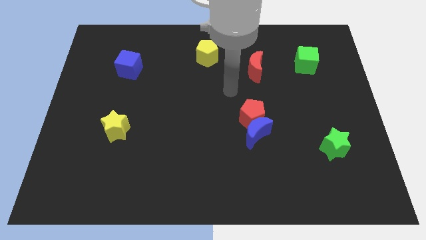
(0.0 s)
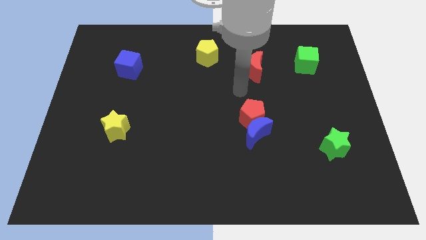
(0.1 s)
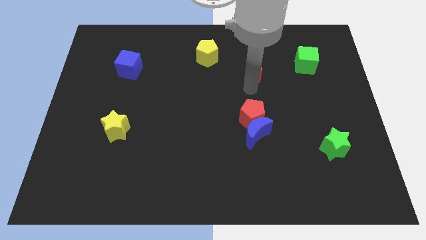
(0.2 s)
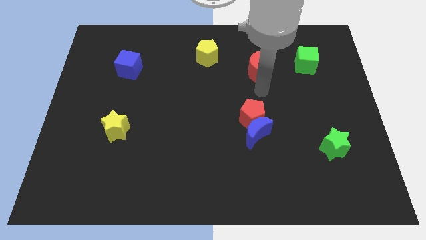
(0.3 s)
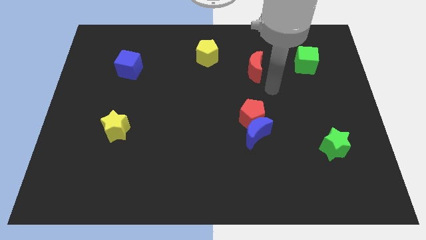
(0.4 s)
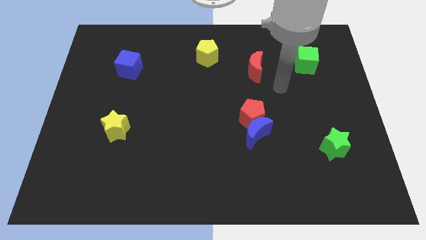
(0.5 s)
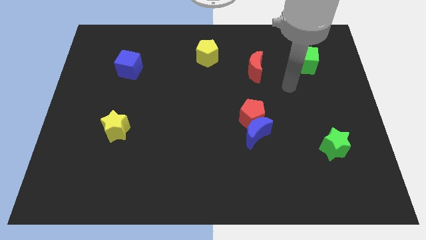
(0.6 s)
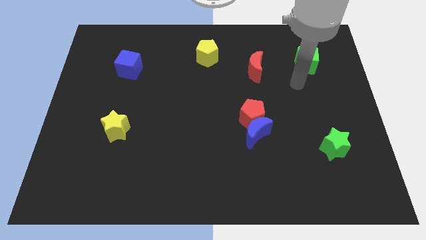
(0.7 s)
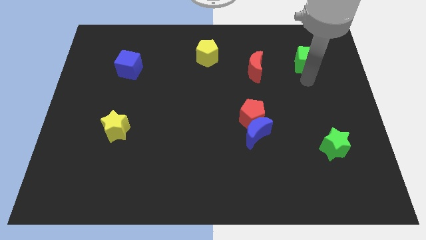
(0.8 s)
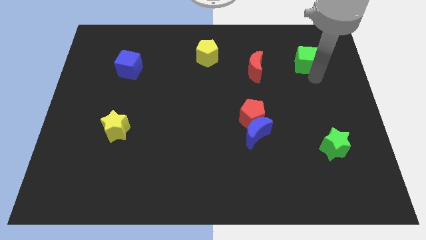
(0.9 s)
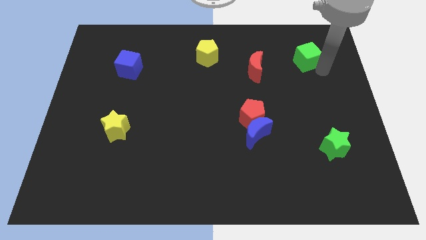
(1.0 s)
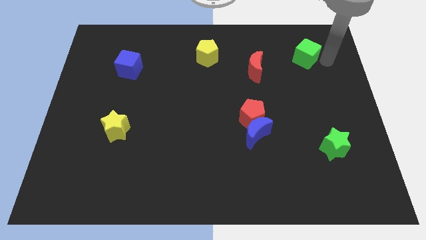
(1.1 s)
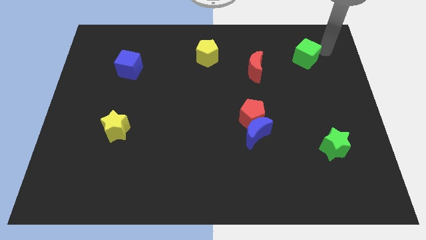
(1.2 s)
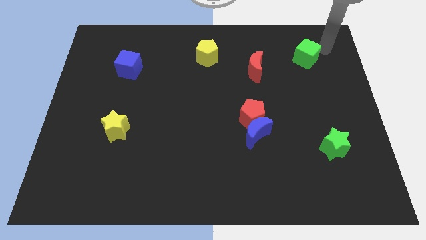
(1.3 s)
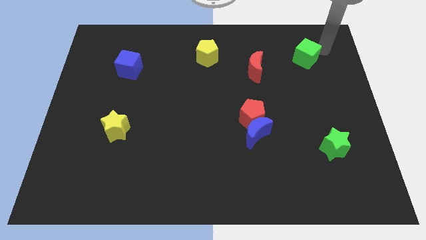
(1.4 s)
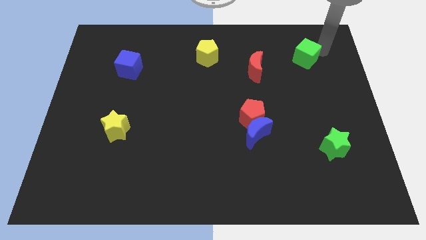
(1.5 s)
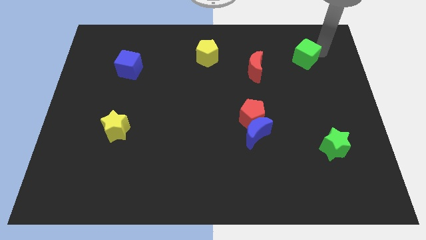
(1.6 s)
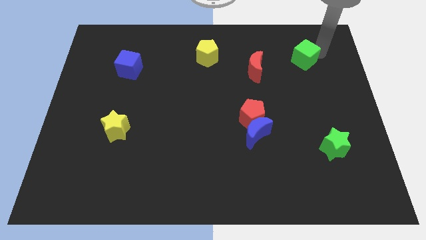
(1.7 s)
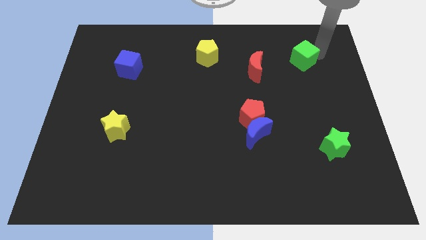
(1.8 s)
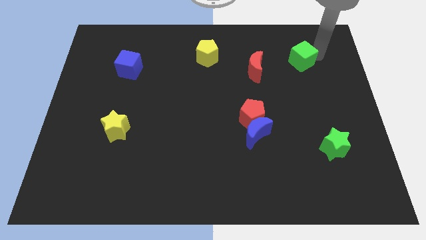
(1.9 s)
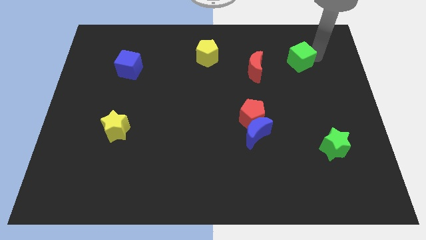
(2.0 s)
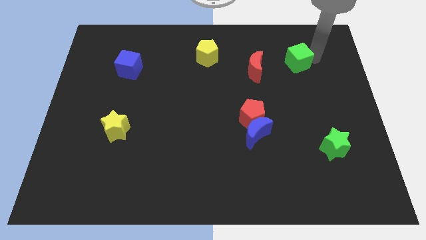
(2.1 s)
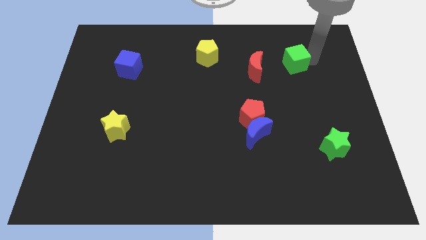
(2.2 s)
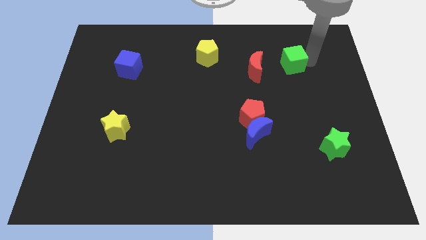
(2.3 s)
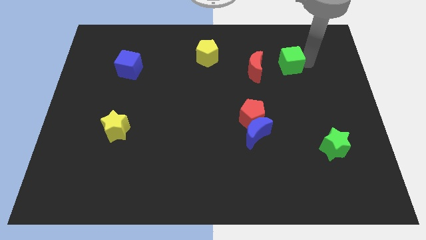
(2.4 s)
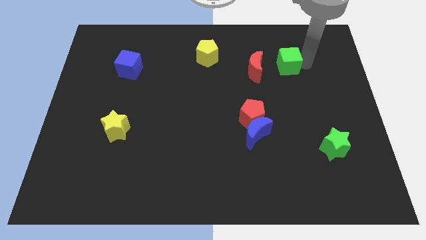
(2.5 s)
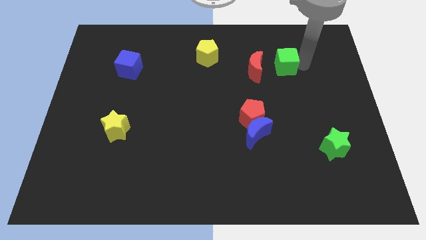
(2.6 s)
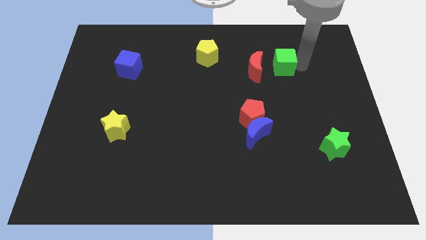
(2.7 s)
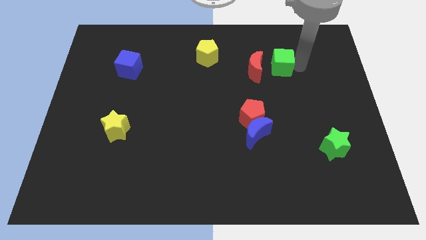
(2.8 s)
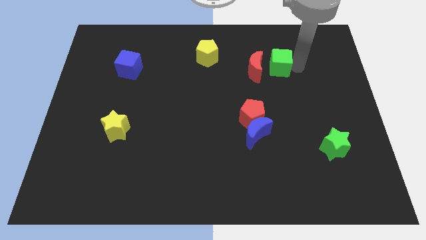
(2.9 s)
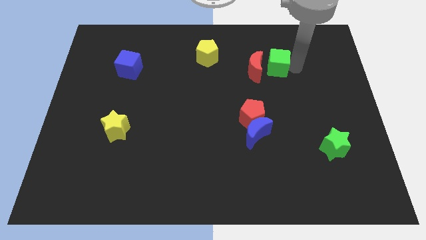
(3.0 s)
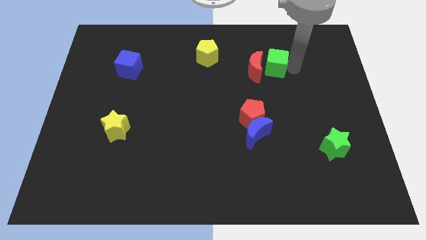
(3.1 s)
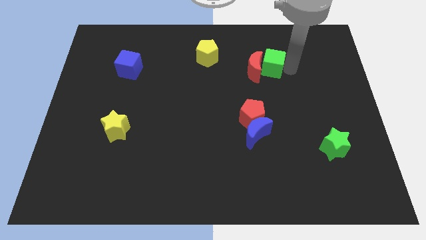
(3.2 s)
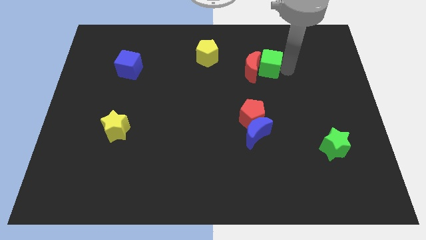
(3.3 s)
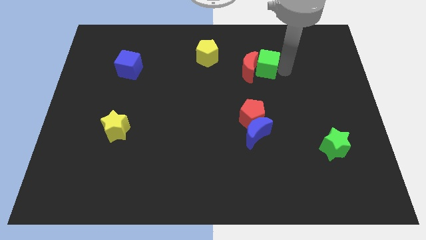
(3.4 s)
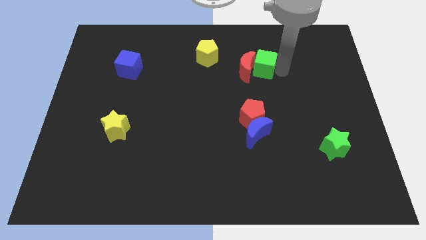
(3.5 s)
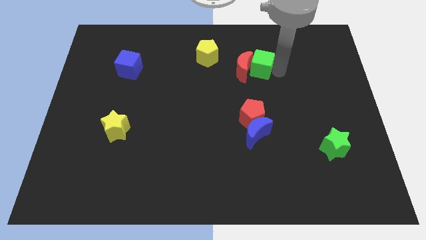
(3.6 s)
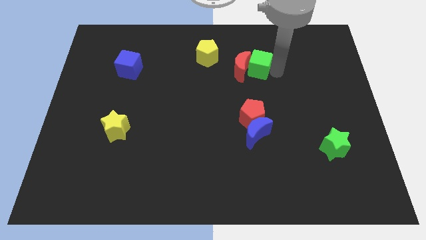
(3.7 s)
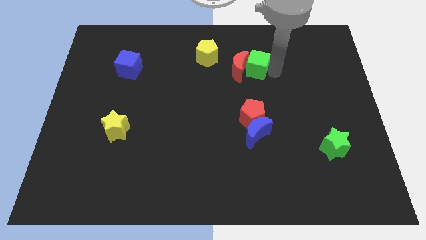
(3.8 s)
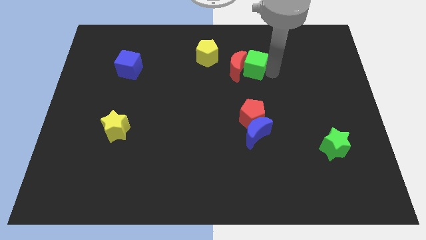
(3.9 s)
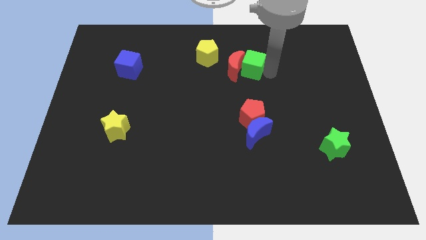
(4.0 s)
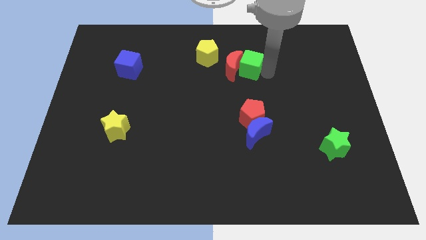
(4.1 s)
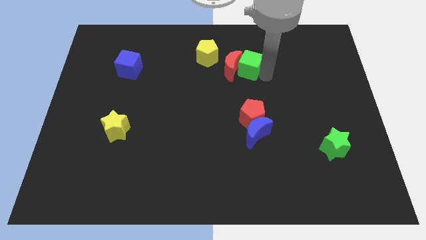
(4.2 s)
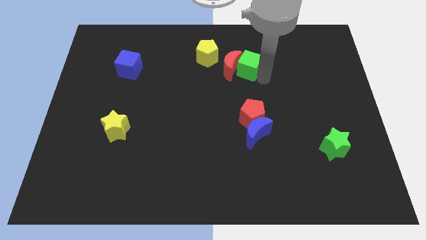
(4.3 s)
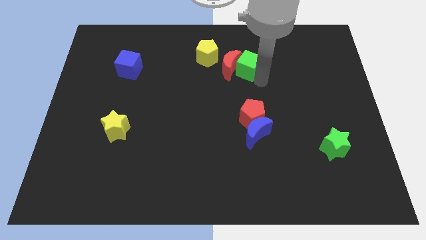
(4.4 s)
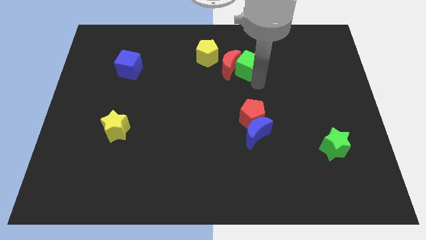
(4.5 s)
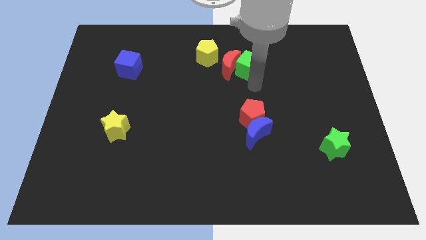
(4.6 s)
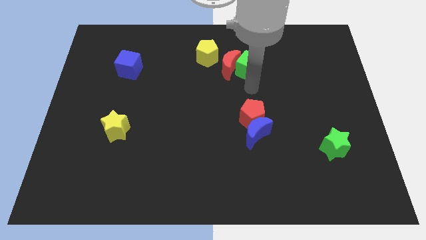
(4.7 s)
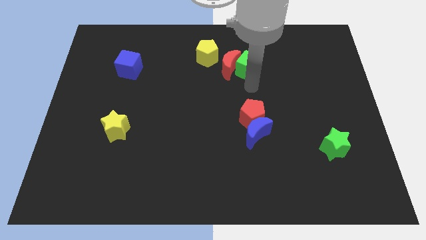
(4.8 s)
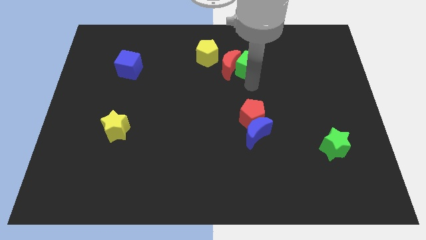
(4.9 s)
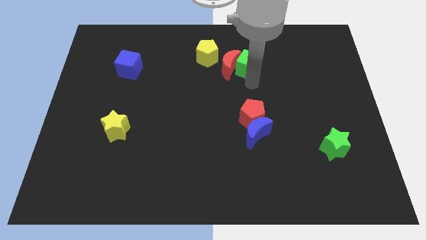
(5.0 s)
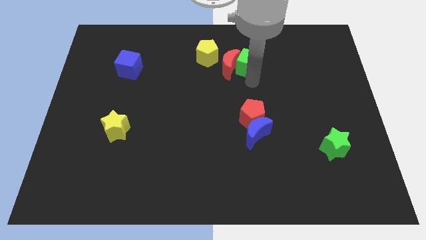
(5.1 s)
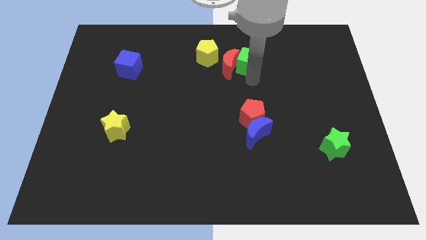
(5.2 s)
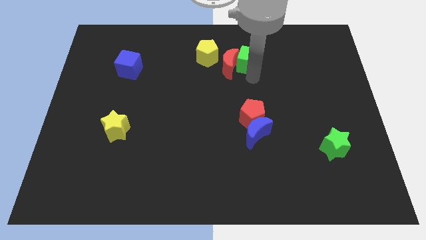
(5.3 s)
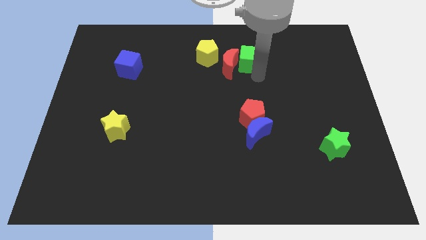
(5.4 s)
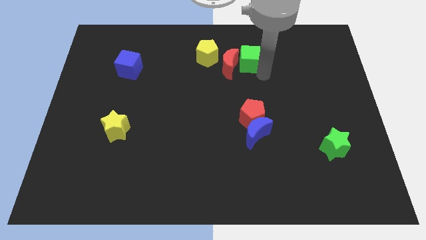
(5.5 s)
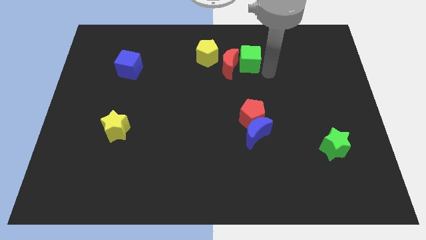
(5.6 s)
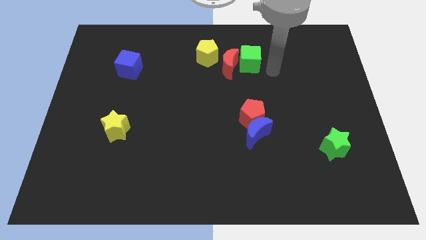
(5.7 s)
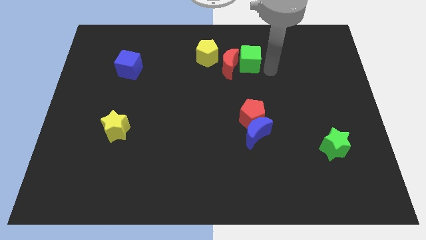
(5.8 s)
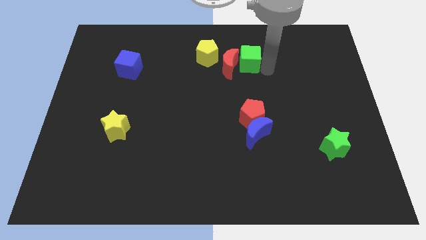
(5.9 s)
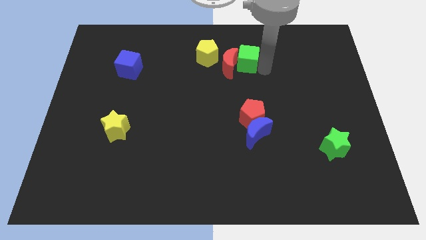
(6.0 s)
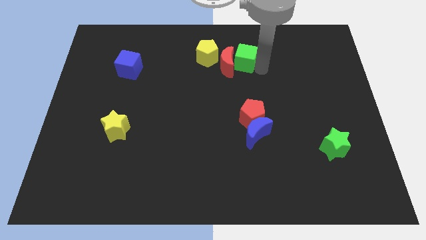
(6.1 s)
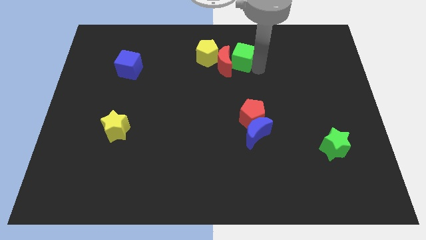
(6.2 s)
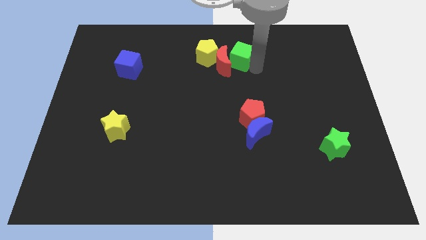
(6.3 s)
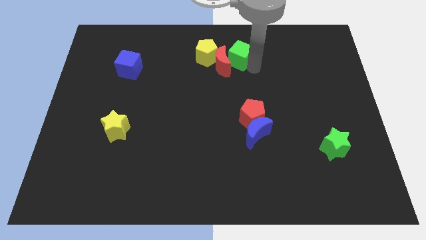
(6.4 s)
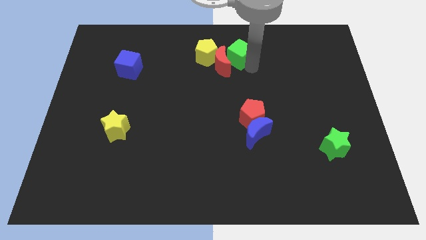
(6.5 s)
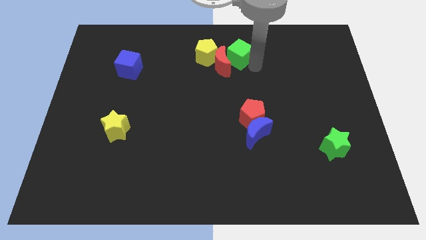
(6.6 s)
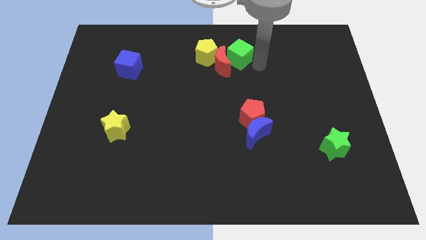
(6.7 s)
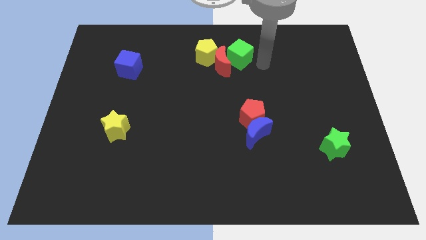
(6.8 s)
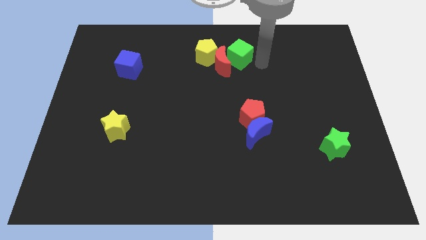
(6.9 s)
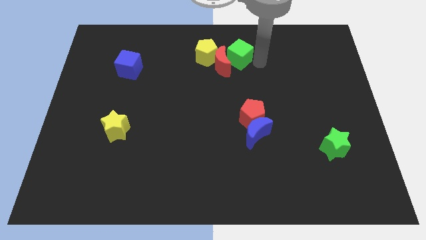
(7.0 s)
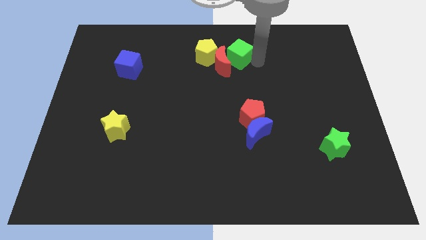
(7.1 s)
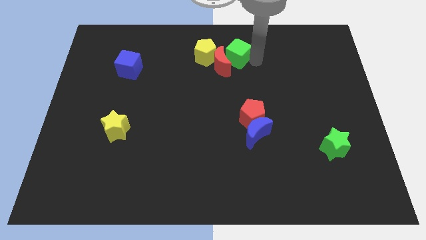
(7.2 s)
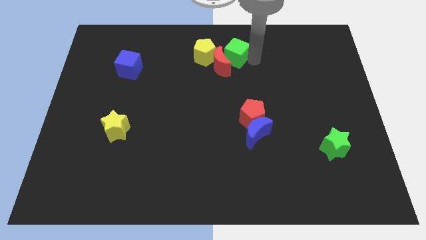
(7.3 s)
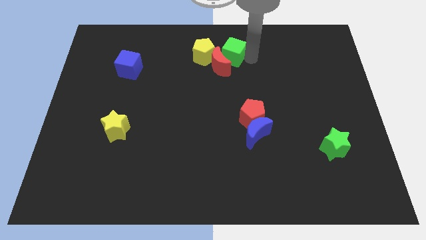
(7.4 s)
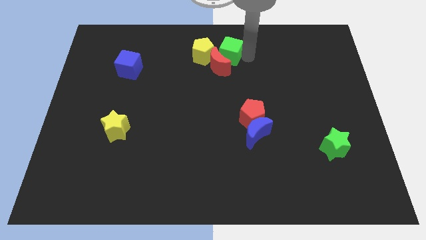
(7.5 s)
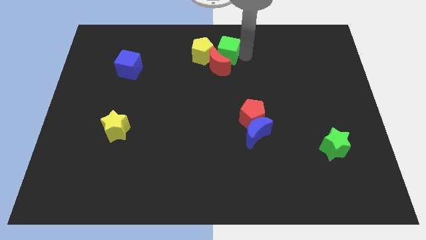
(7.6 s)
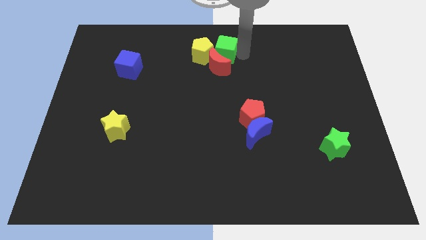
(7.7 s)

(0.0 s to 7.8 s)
slide the green cube next to the yellow pentagon
